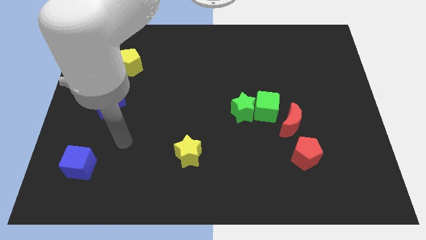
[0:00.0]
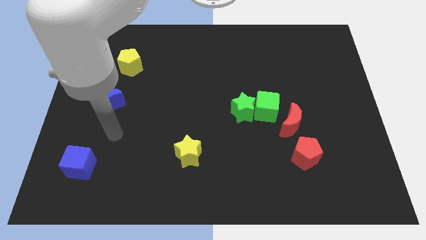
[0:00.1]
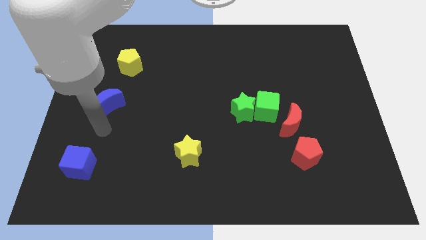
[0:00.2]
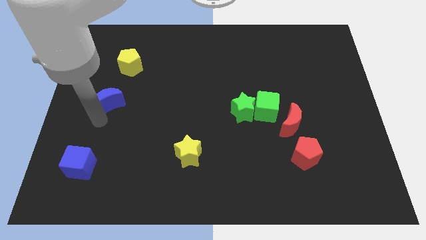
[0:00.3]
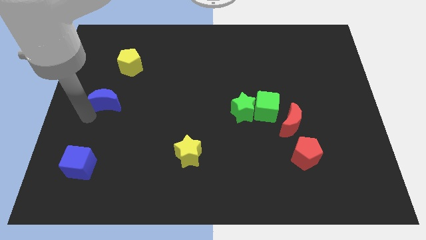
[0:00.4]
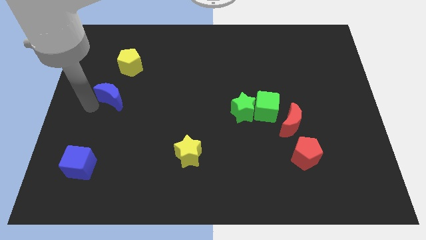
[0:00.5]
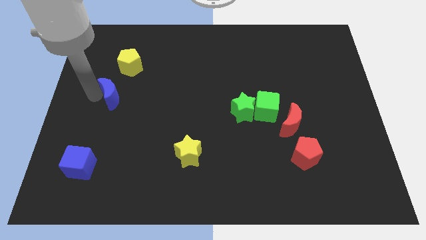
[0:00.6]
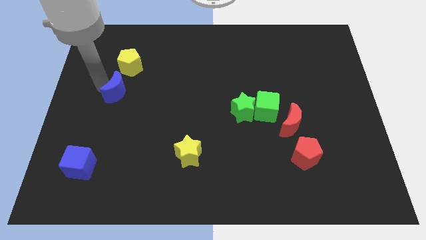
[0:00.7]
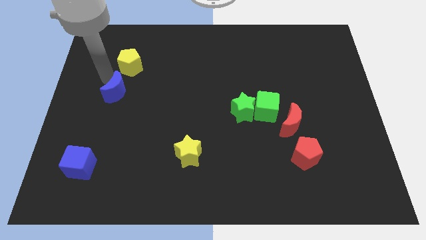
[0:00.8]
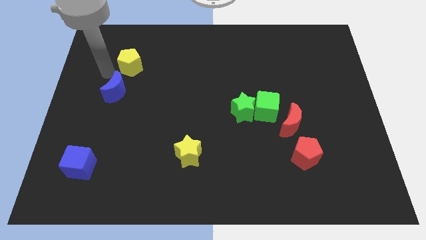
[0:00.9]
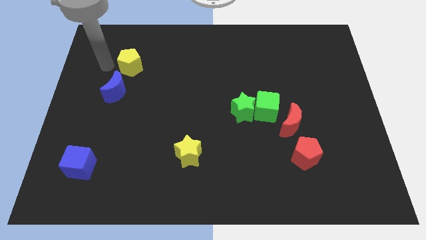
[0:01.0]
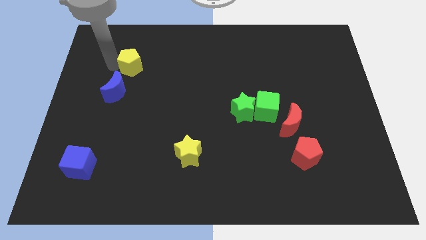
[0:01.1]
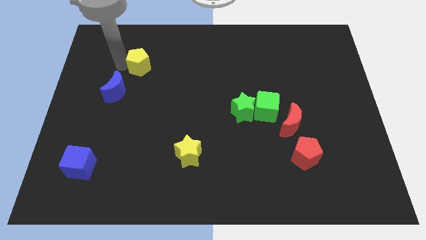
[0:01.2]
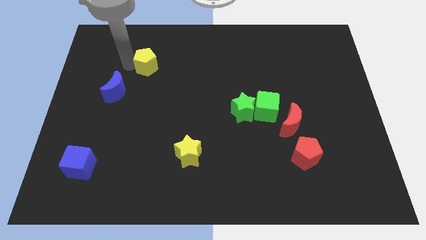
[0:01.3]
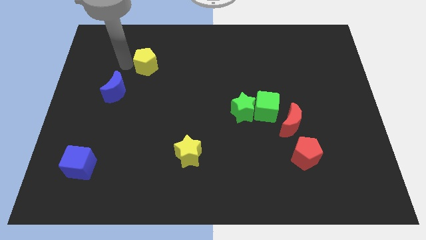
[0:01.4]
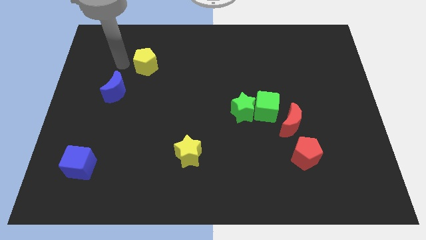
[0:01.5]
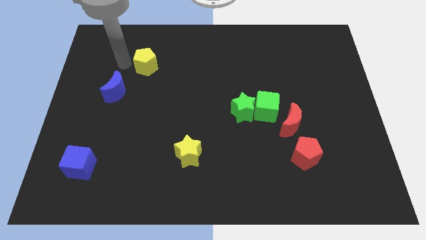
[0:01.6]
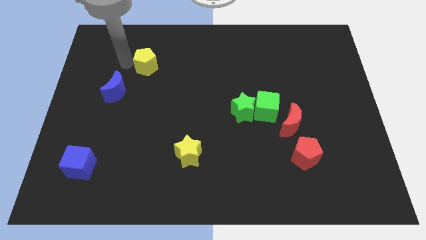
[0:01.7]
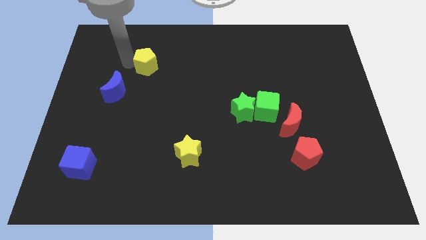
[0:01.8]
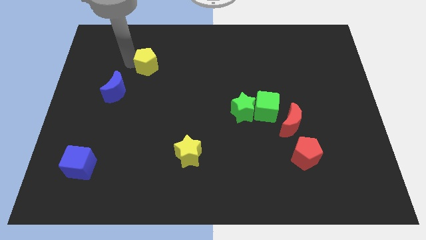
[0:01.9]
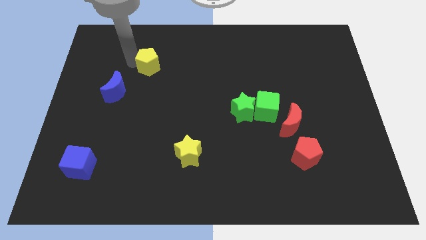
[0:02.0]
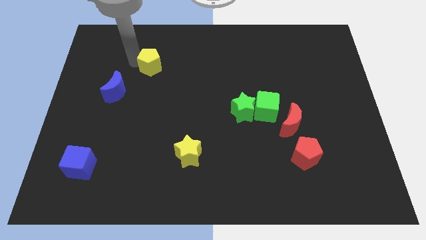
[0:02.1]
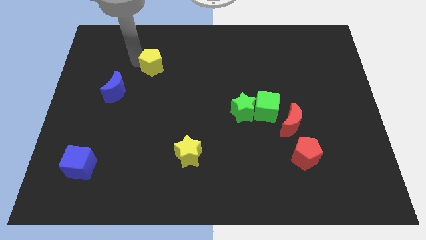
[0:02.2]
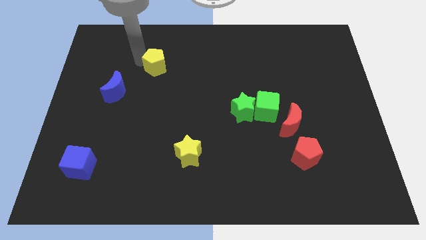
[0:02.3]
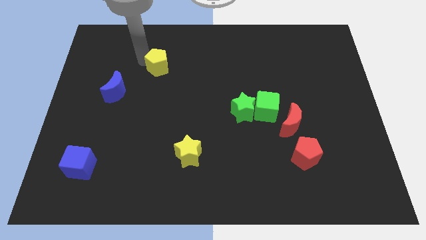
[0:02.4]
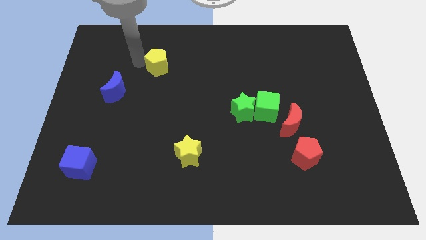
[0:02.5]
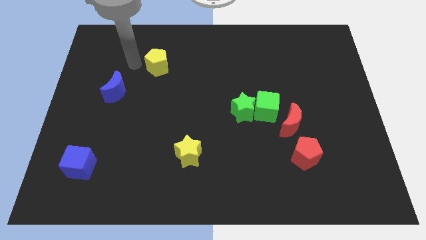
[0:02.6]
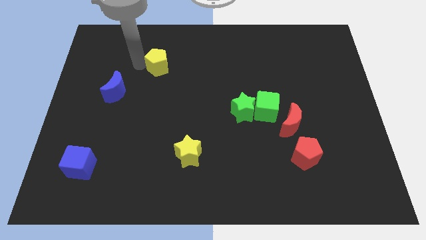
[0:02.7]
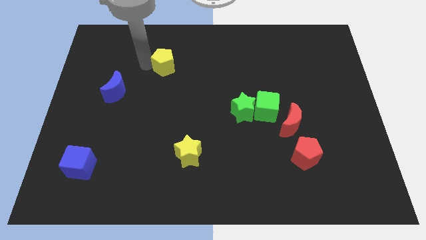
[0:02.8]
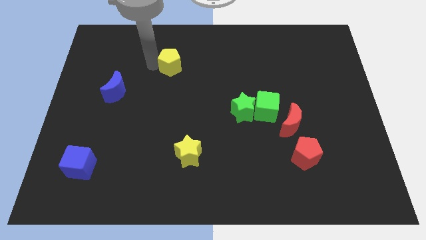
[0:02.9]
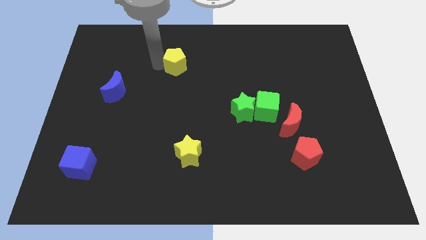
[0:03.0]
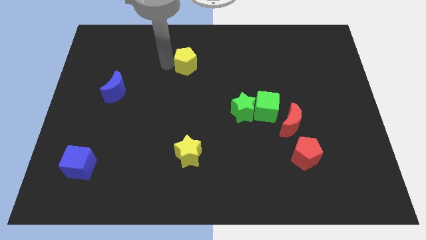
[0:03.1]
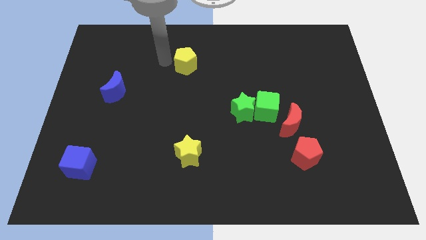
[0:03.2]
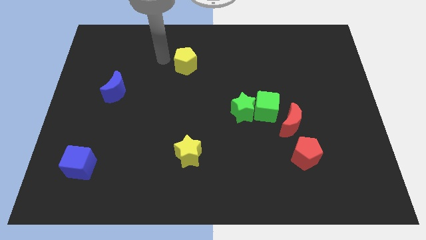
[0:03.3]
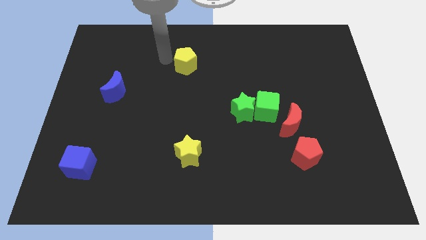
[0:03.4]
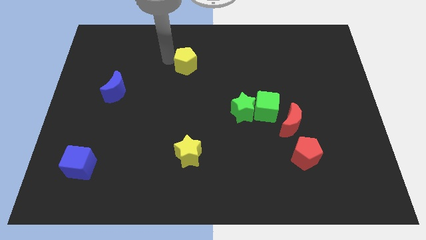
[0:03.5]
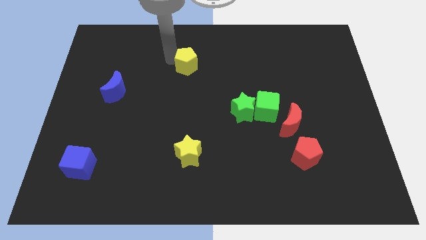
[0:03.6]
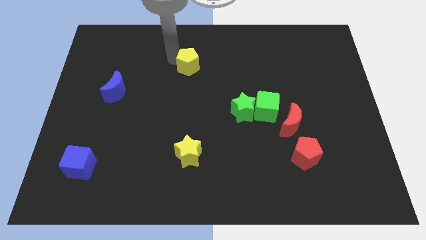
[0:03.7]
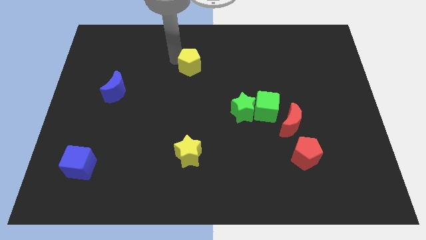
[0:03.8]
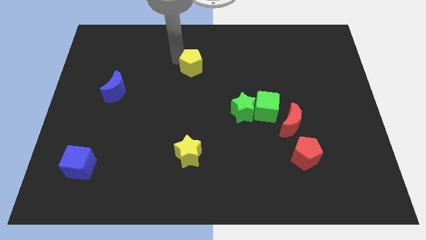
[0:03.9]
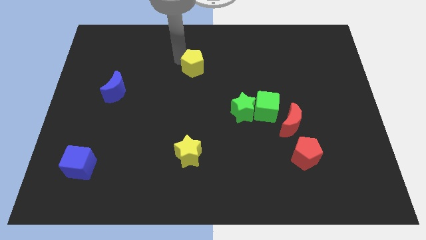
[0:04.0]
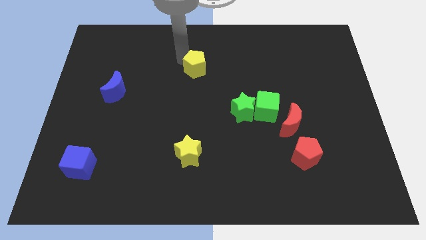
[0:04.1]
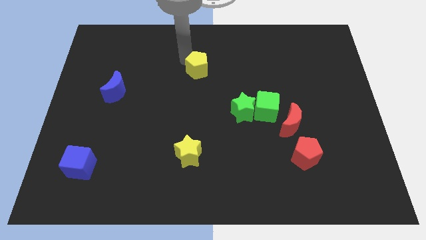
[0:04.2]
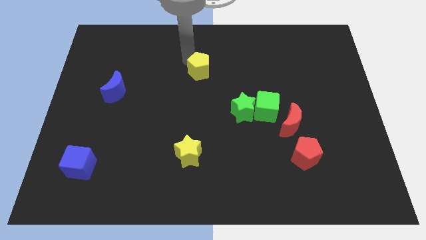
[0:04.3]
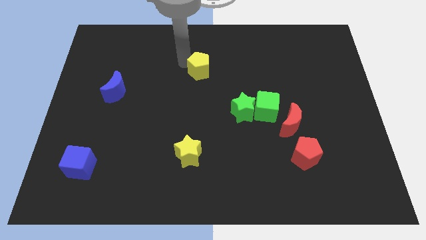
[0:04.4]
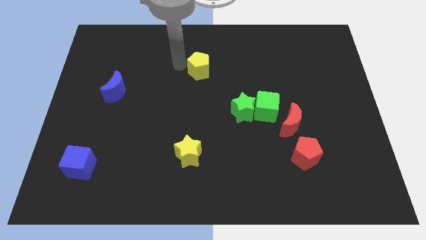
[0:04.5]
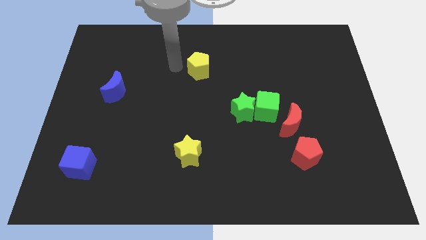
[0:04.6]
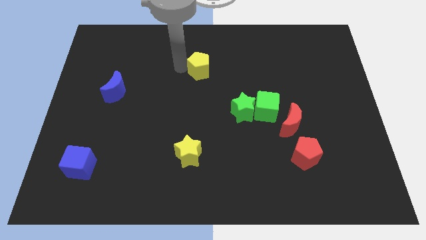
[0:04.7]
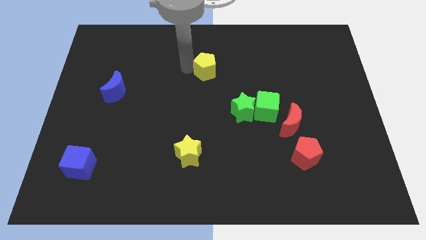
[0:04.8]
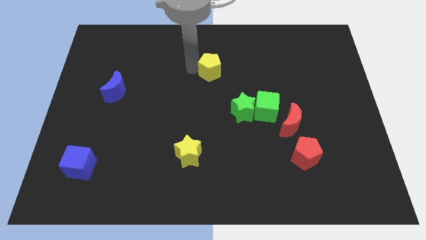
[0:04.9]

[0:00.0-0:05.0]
slide the yellow pentagon right

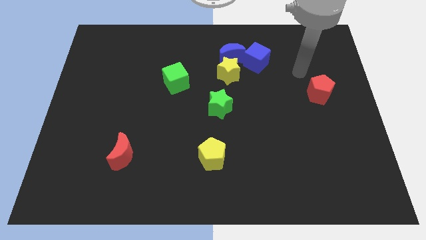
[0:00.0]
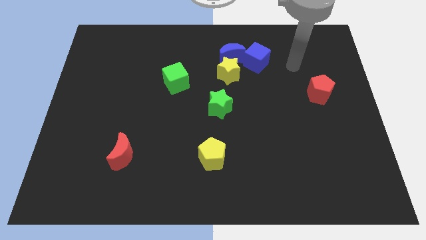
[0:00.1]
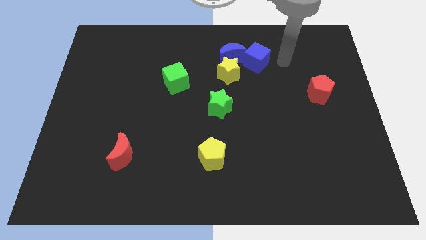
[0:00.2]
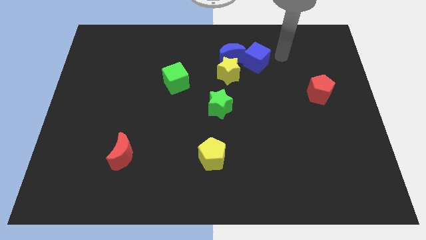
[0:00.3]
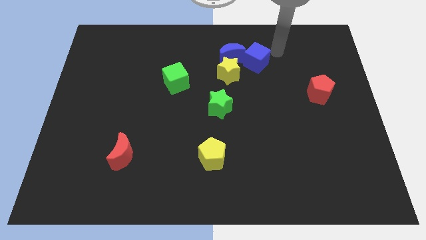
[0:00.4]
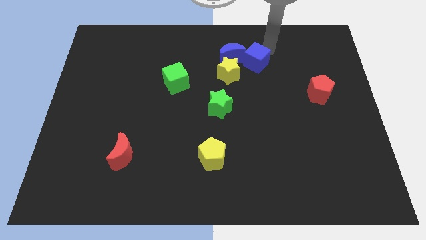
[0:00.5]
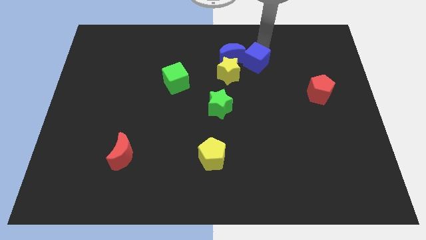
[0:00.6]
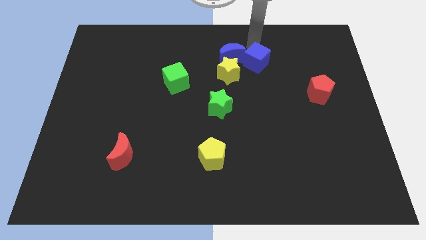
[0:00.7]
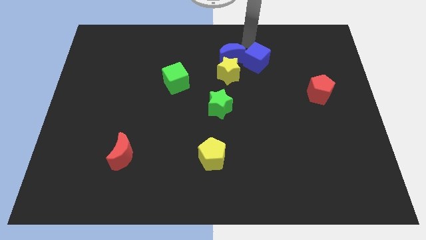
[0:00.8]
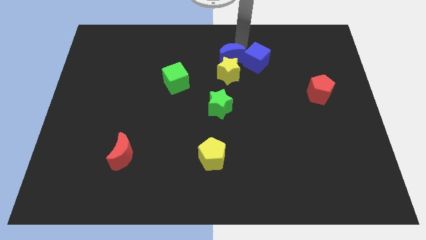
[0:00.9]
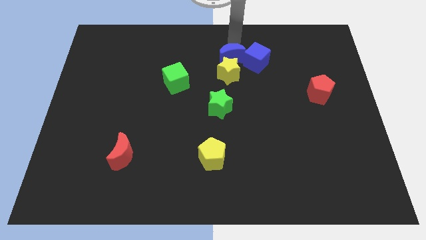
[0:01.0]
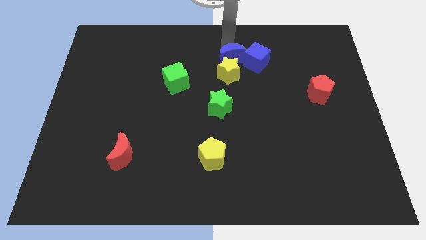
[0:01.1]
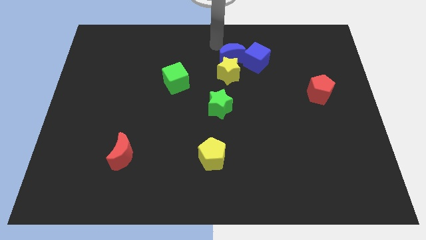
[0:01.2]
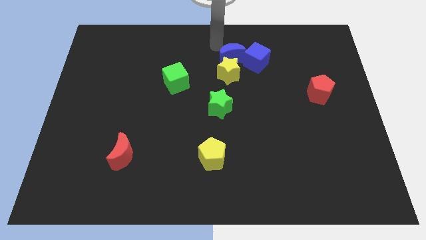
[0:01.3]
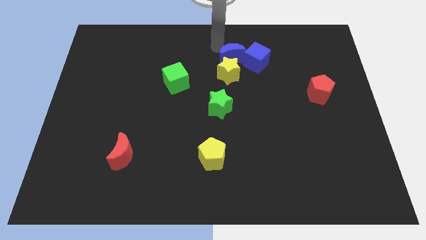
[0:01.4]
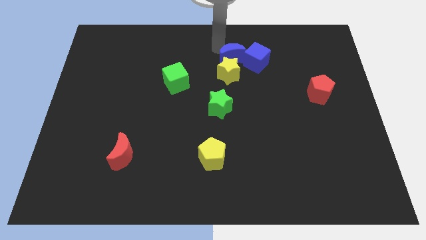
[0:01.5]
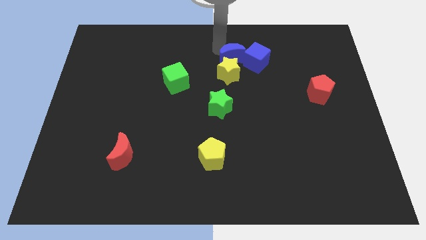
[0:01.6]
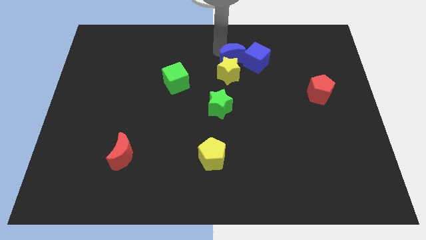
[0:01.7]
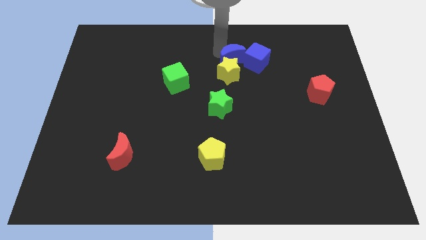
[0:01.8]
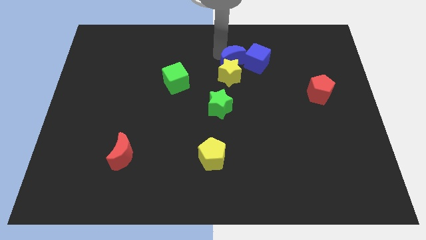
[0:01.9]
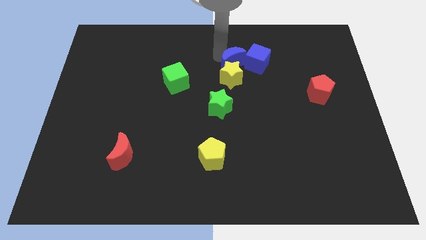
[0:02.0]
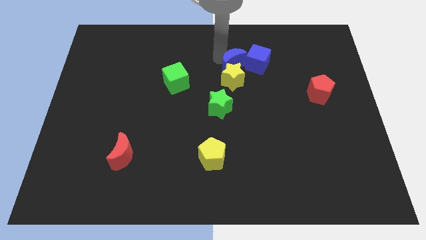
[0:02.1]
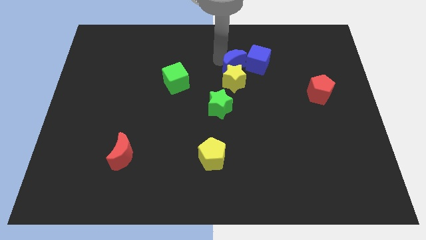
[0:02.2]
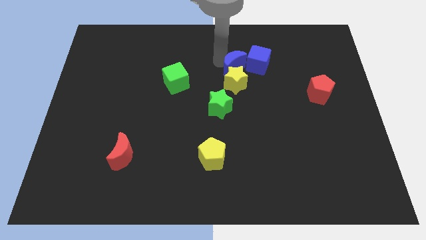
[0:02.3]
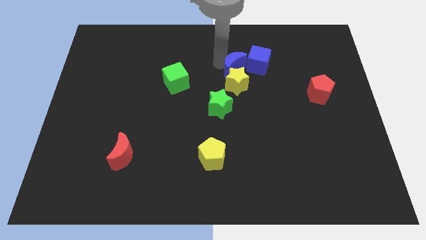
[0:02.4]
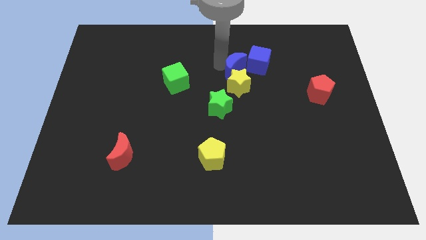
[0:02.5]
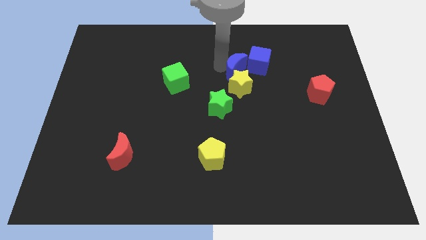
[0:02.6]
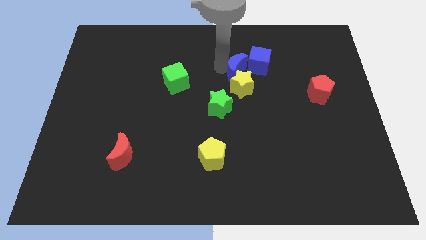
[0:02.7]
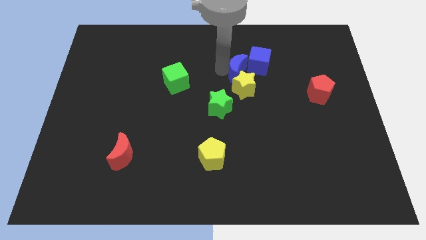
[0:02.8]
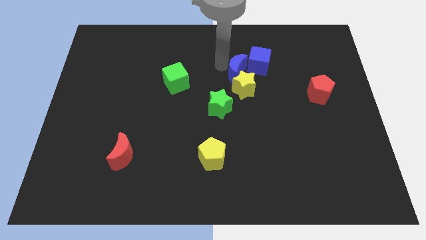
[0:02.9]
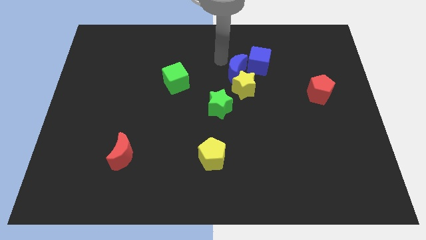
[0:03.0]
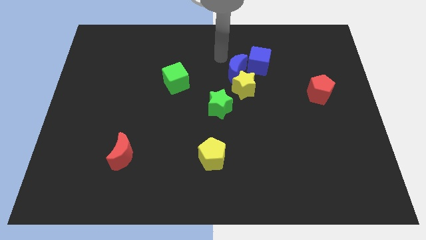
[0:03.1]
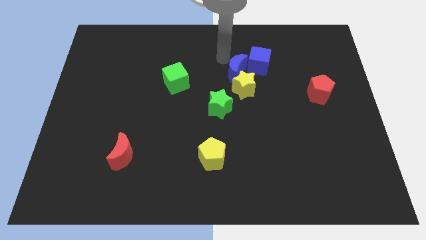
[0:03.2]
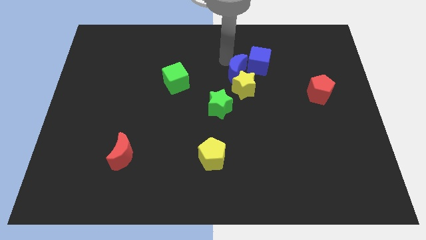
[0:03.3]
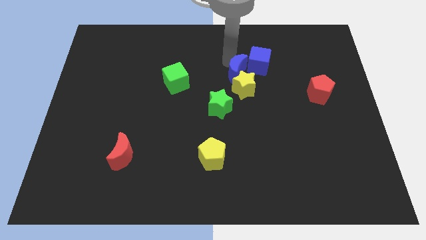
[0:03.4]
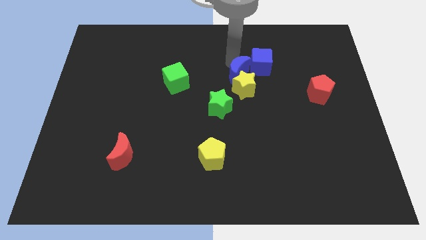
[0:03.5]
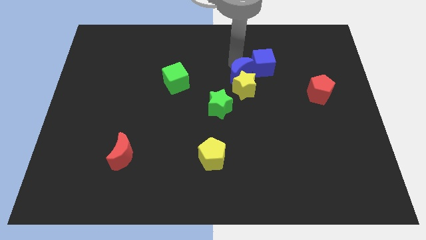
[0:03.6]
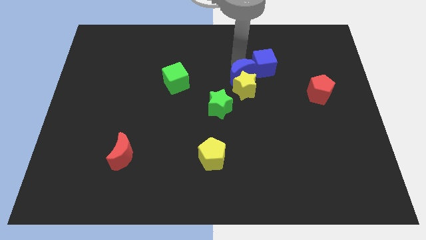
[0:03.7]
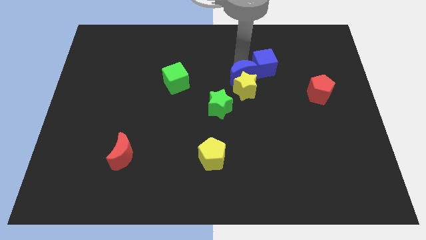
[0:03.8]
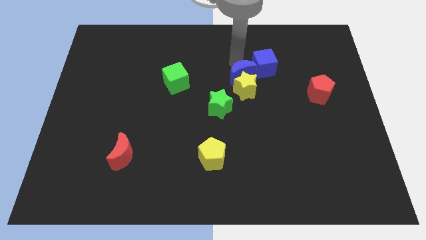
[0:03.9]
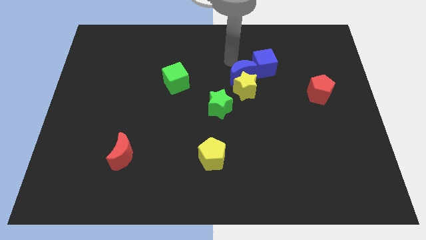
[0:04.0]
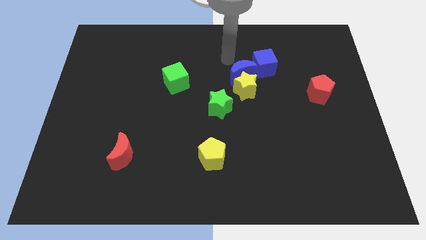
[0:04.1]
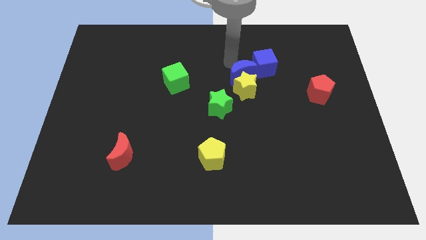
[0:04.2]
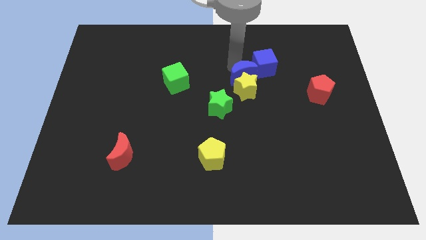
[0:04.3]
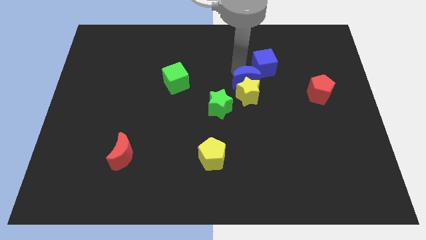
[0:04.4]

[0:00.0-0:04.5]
slide the blue moon a little bit down
